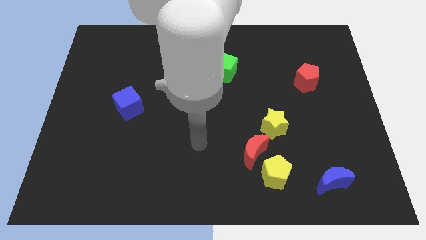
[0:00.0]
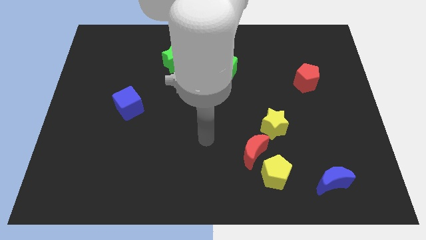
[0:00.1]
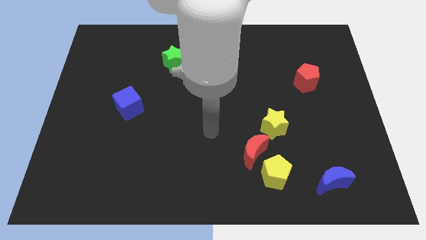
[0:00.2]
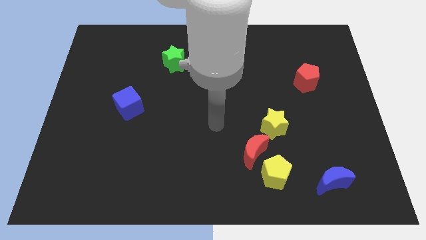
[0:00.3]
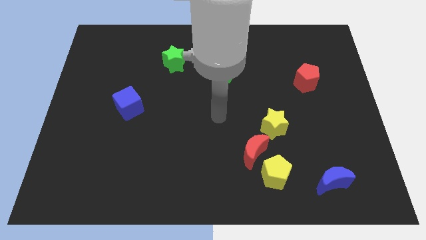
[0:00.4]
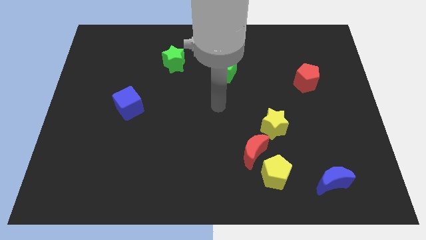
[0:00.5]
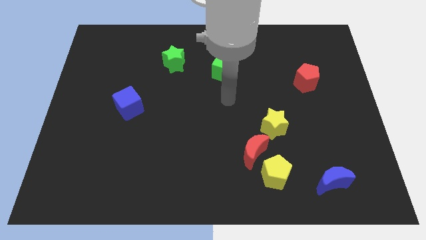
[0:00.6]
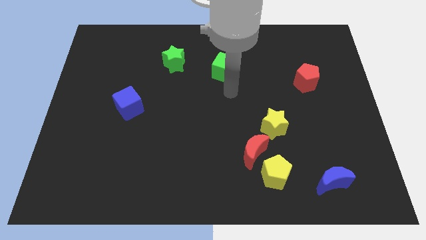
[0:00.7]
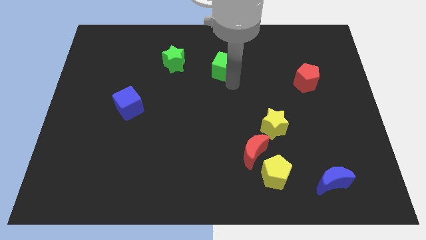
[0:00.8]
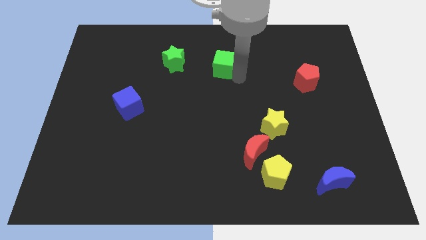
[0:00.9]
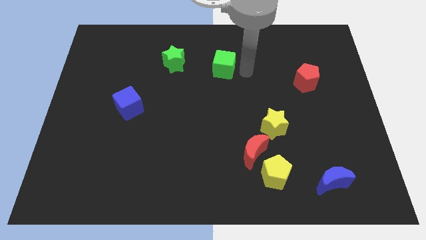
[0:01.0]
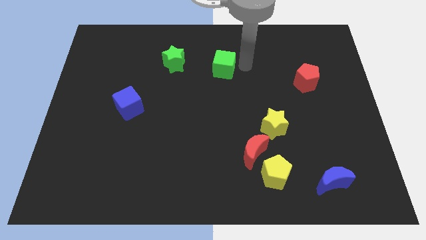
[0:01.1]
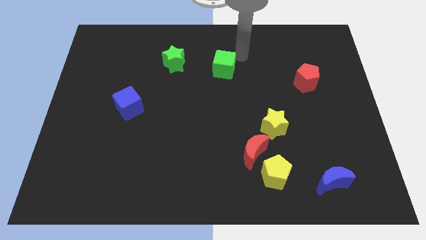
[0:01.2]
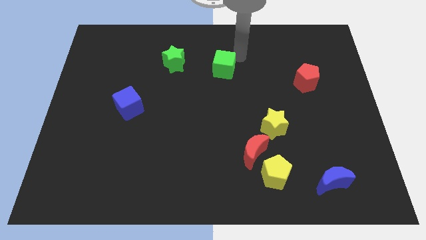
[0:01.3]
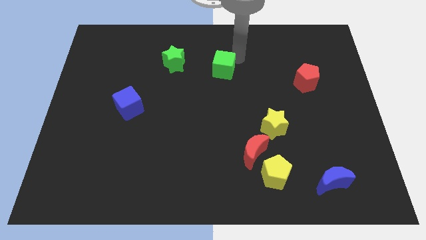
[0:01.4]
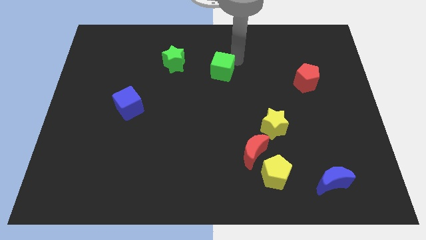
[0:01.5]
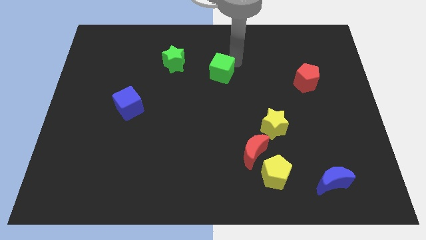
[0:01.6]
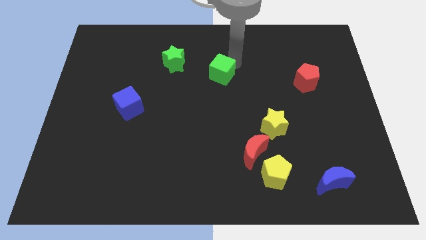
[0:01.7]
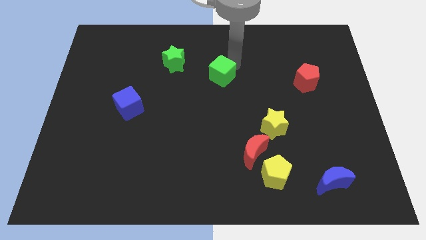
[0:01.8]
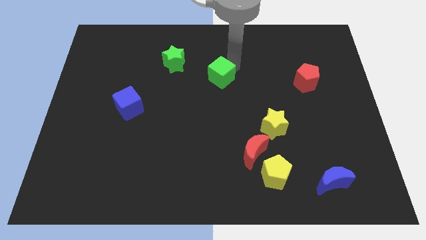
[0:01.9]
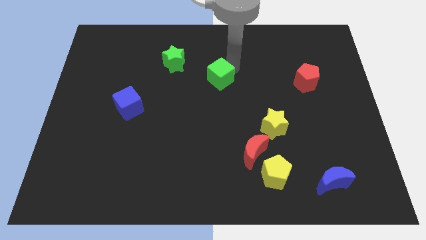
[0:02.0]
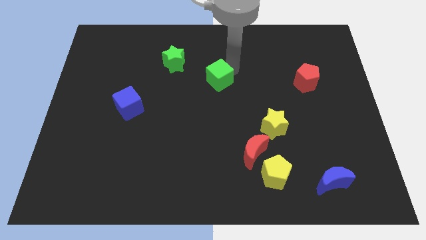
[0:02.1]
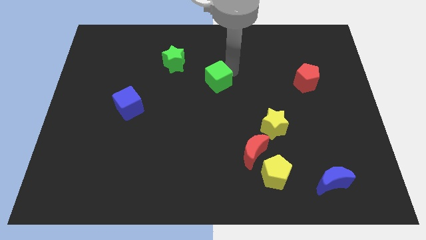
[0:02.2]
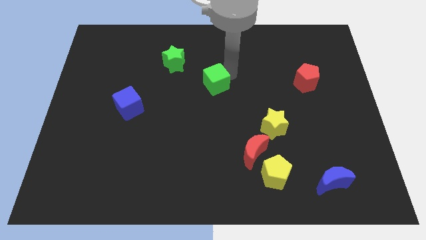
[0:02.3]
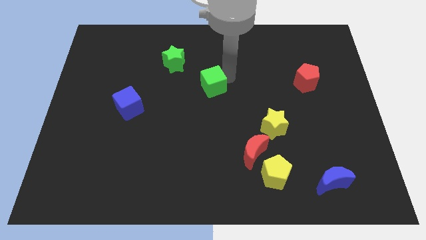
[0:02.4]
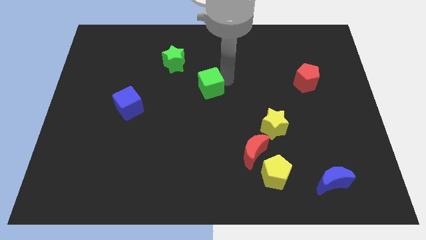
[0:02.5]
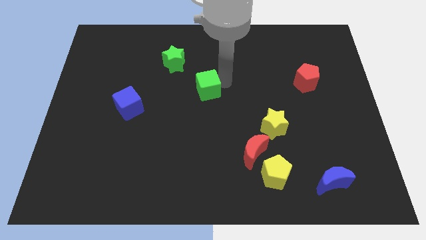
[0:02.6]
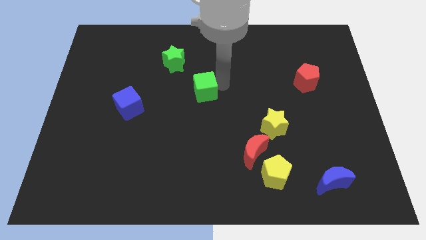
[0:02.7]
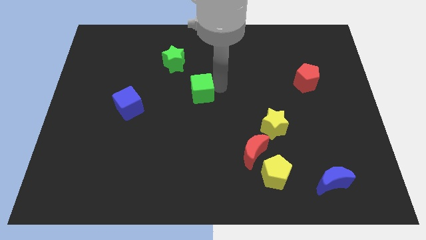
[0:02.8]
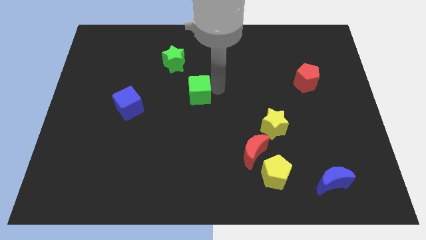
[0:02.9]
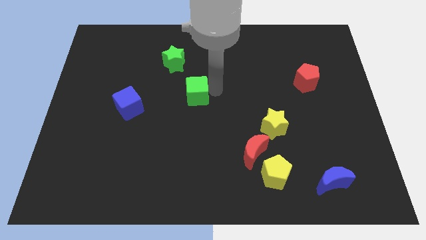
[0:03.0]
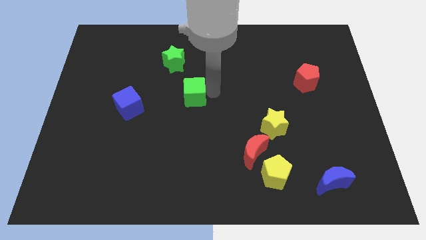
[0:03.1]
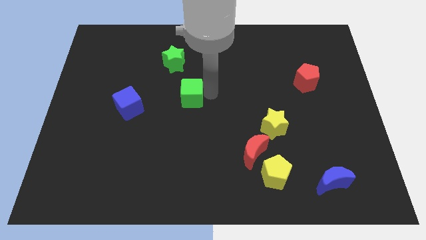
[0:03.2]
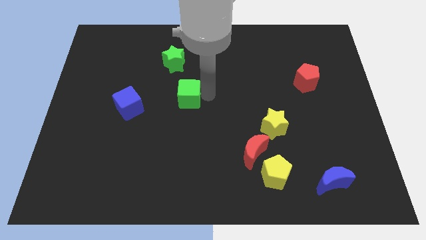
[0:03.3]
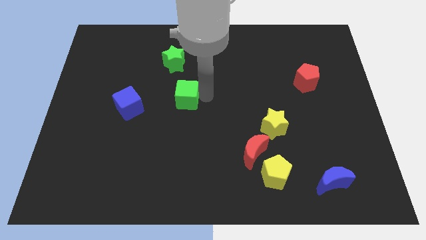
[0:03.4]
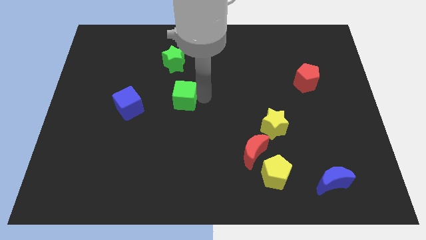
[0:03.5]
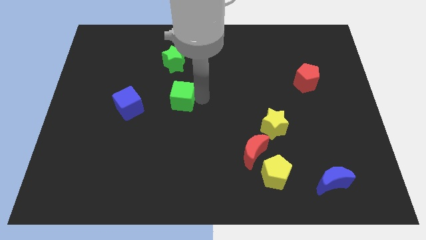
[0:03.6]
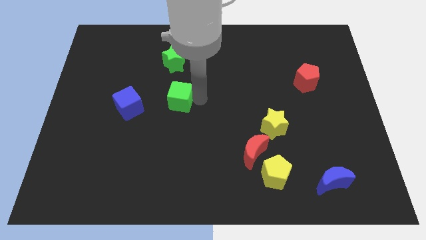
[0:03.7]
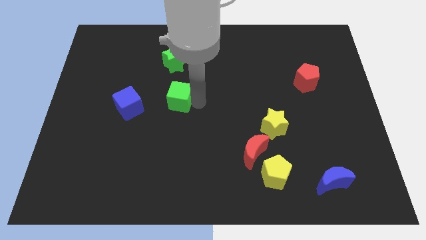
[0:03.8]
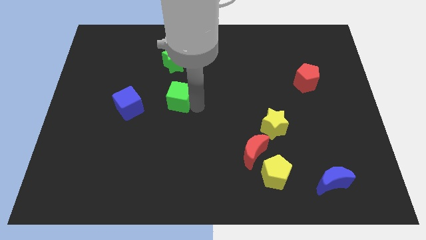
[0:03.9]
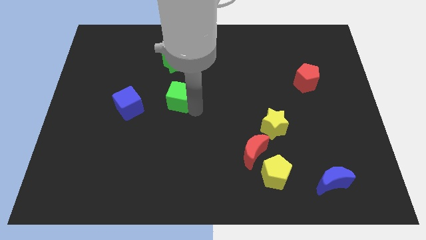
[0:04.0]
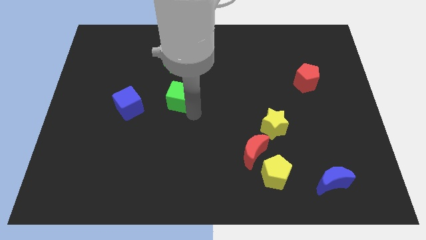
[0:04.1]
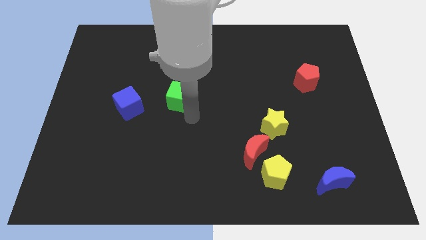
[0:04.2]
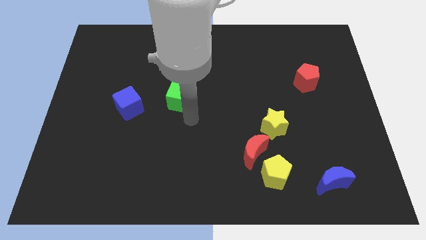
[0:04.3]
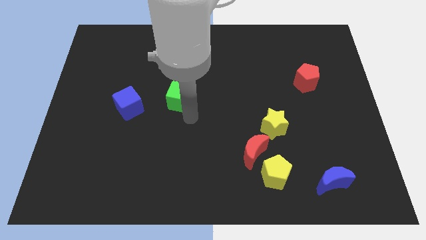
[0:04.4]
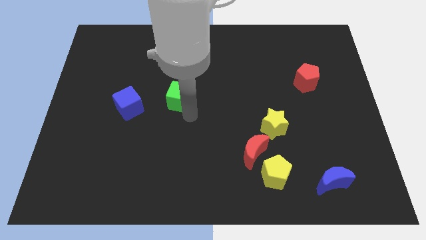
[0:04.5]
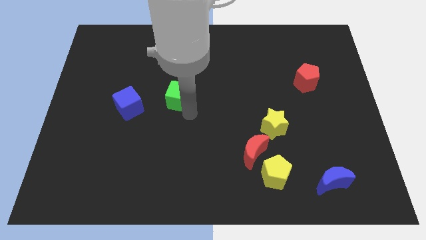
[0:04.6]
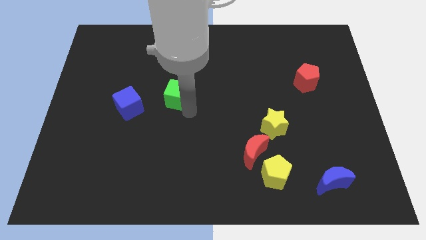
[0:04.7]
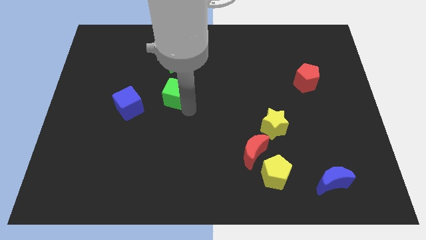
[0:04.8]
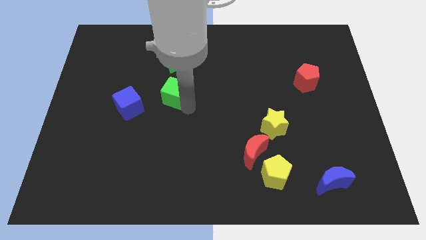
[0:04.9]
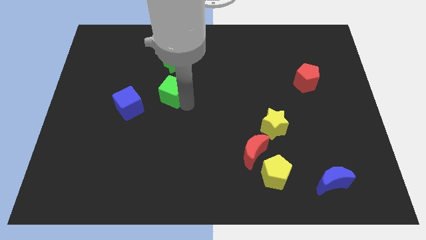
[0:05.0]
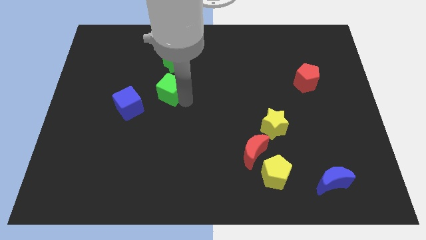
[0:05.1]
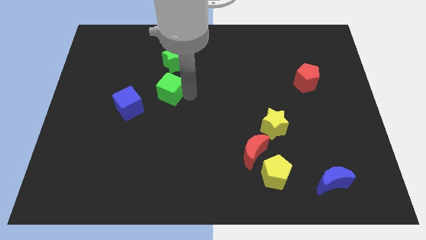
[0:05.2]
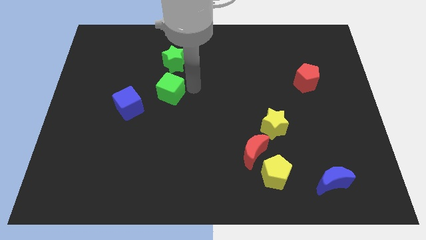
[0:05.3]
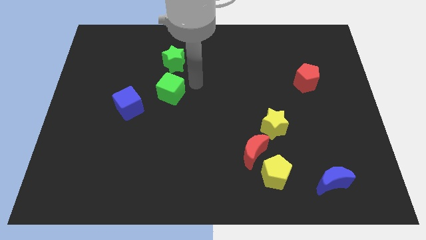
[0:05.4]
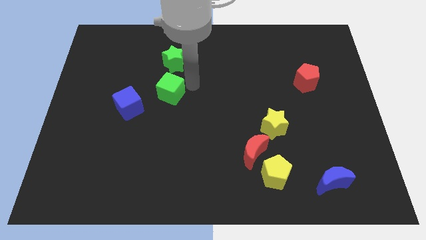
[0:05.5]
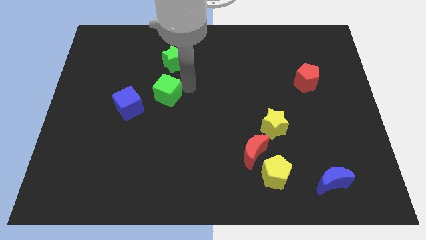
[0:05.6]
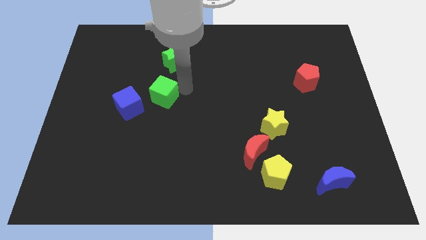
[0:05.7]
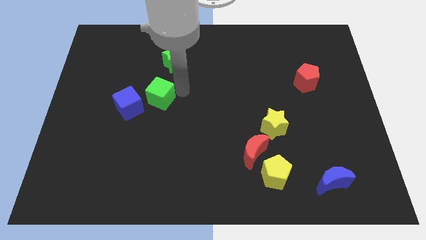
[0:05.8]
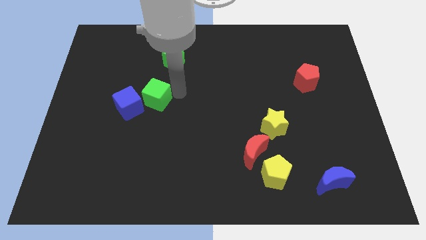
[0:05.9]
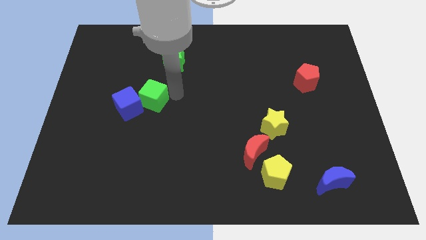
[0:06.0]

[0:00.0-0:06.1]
move the green cube to the blue cube

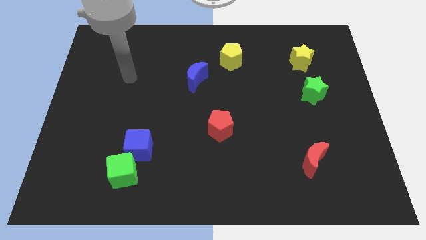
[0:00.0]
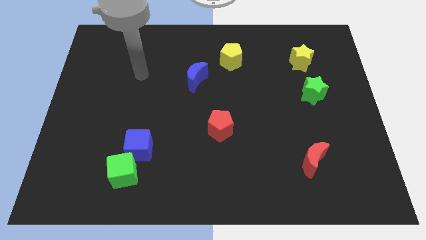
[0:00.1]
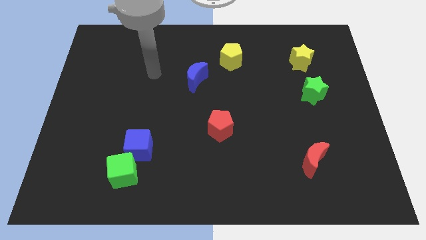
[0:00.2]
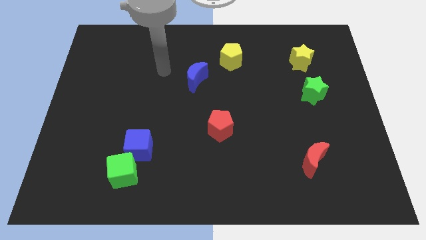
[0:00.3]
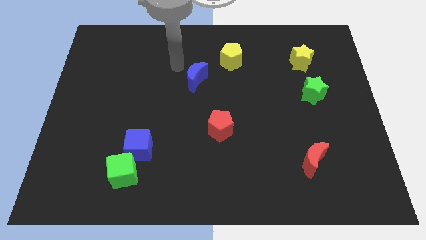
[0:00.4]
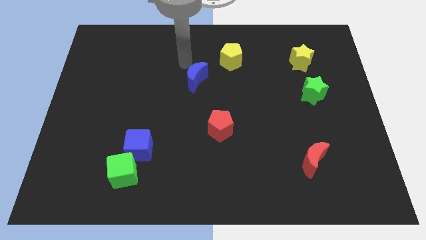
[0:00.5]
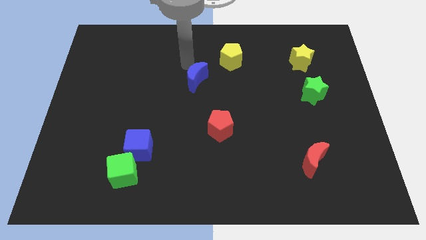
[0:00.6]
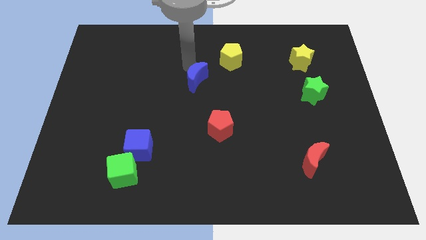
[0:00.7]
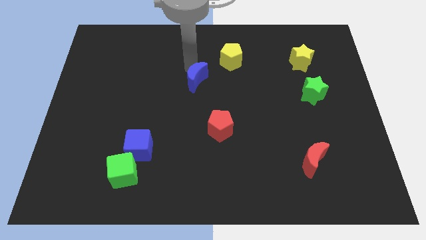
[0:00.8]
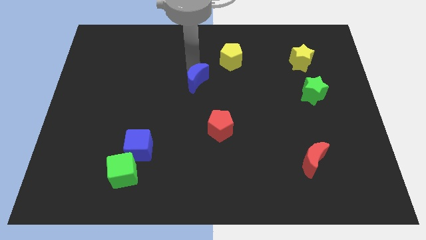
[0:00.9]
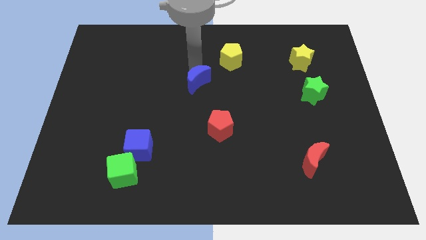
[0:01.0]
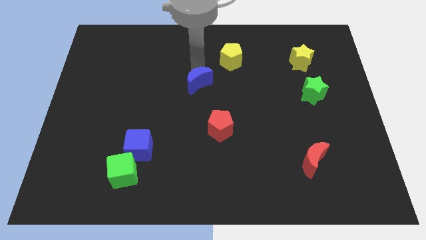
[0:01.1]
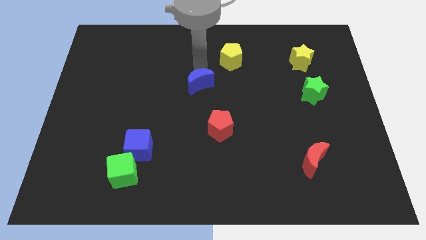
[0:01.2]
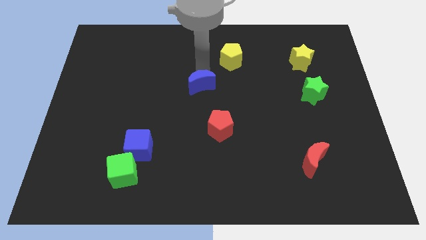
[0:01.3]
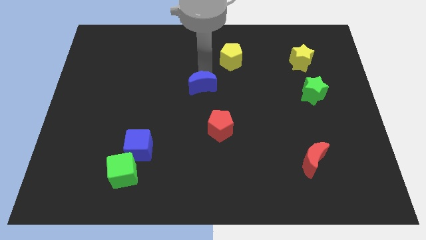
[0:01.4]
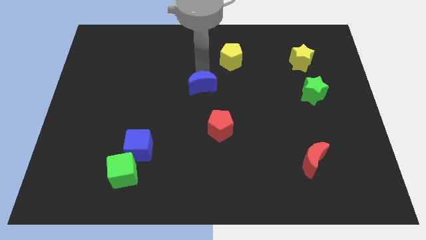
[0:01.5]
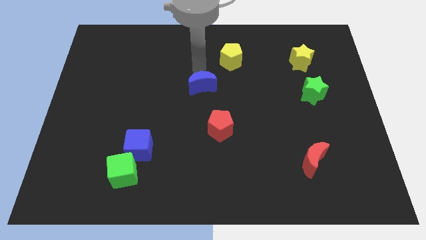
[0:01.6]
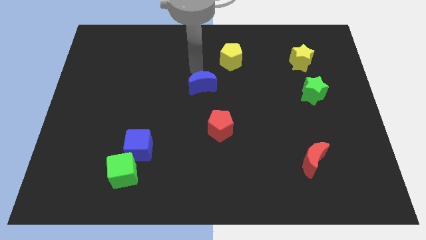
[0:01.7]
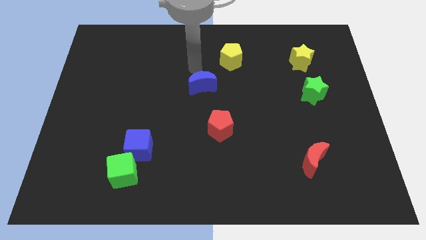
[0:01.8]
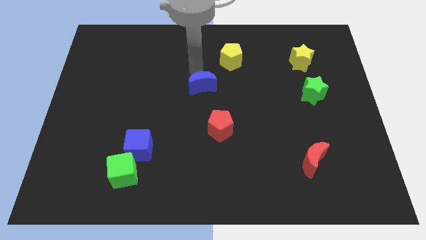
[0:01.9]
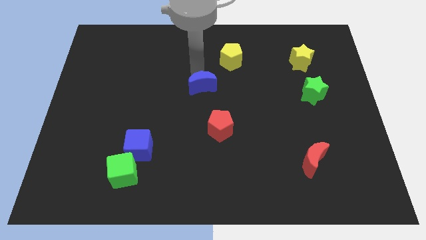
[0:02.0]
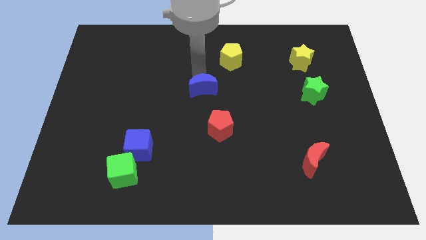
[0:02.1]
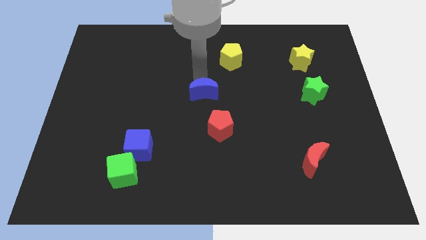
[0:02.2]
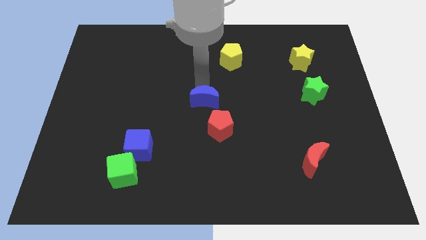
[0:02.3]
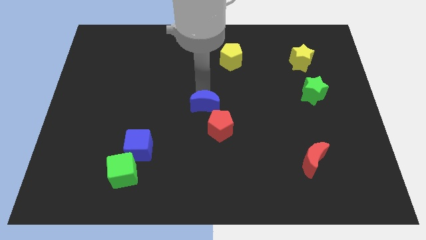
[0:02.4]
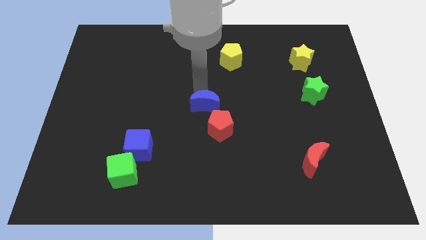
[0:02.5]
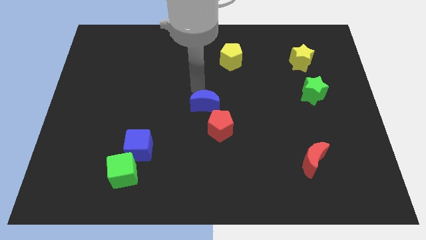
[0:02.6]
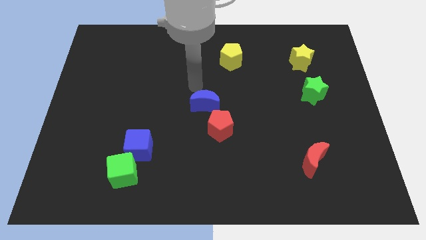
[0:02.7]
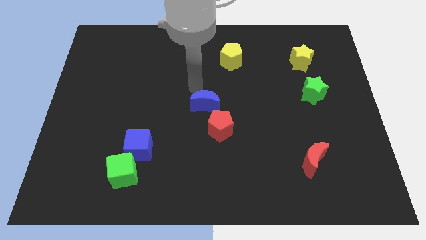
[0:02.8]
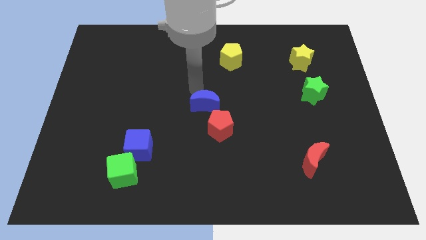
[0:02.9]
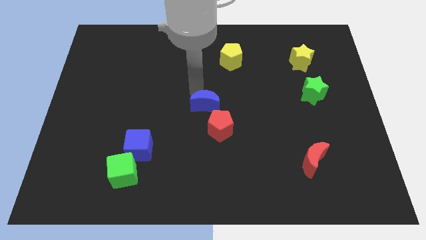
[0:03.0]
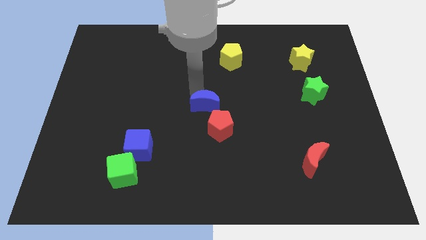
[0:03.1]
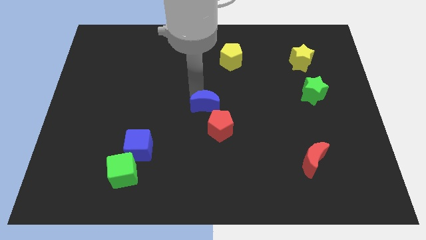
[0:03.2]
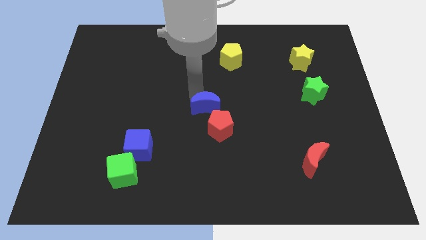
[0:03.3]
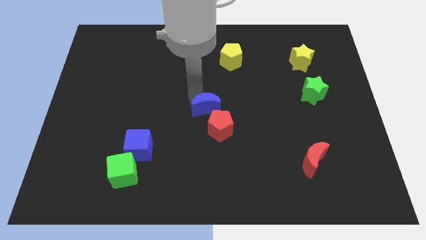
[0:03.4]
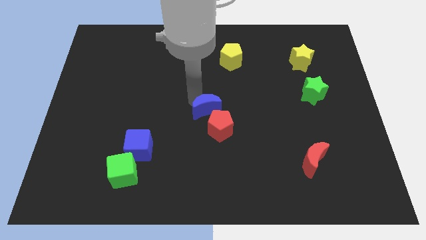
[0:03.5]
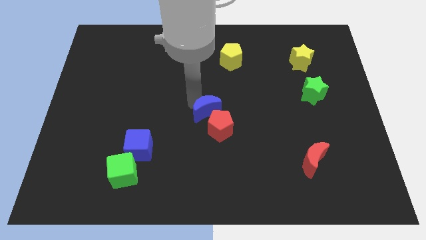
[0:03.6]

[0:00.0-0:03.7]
slide the blue moon close to the red pentagon
